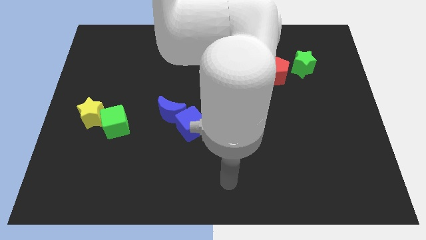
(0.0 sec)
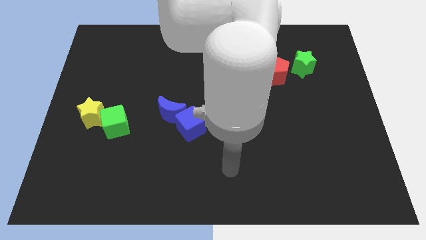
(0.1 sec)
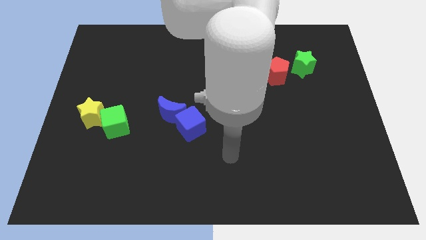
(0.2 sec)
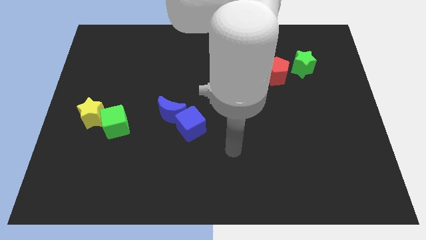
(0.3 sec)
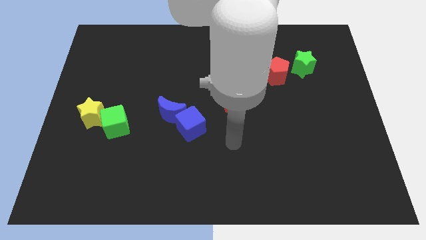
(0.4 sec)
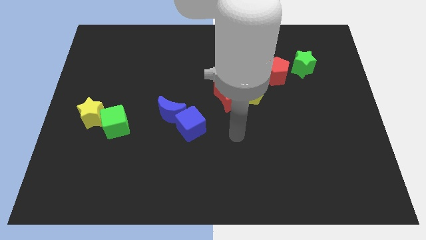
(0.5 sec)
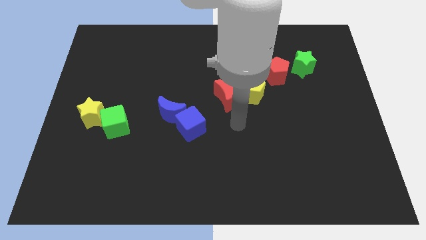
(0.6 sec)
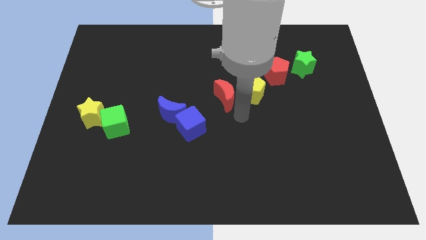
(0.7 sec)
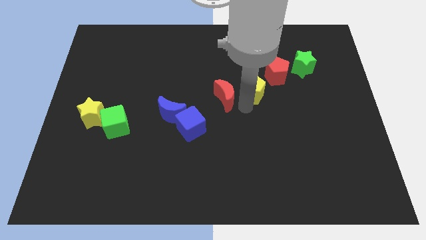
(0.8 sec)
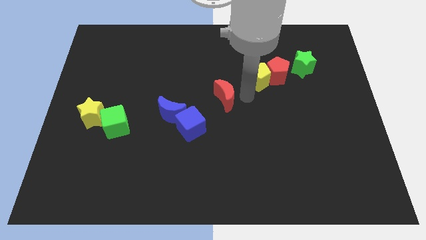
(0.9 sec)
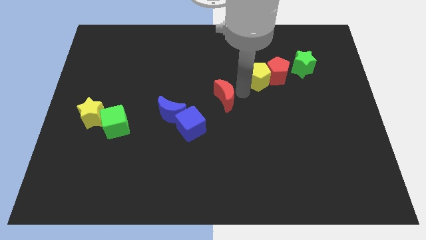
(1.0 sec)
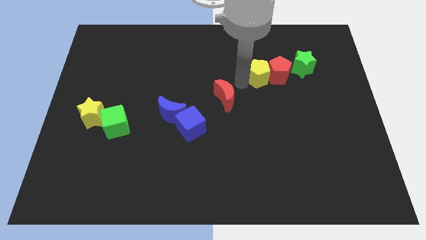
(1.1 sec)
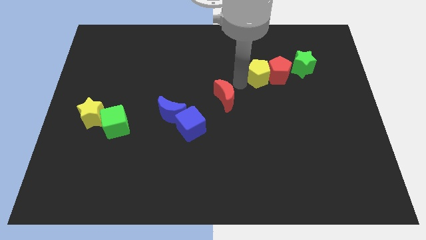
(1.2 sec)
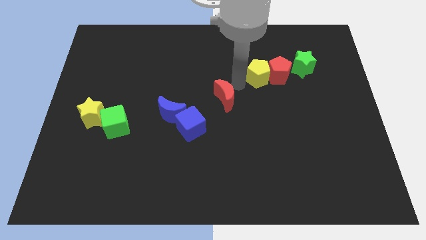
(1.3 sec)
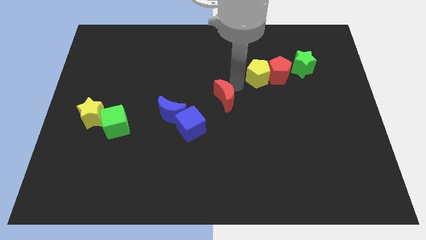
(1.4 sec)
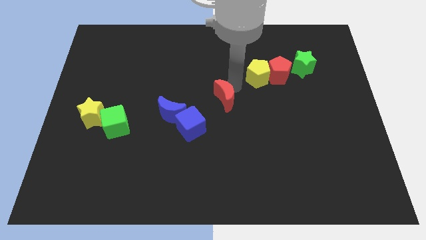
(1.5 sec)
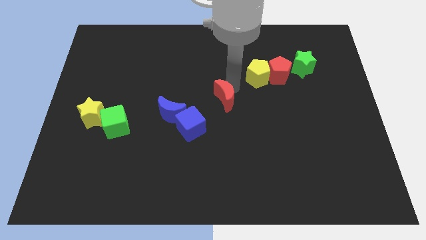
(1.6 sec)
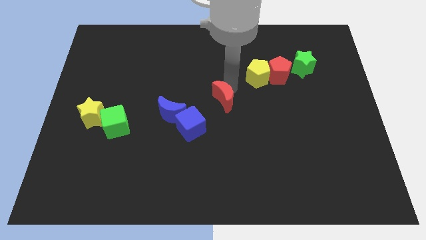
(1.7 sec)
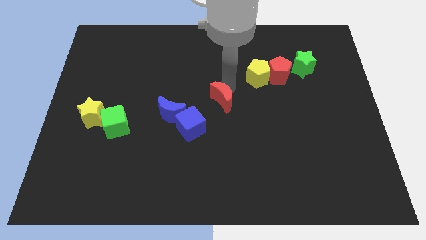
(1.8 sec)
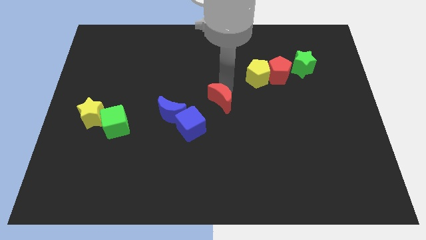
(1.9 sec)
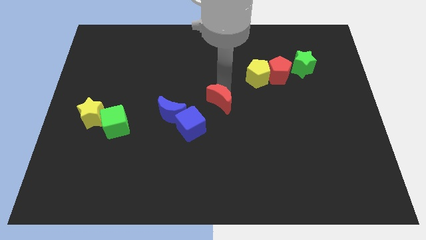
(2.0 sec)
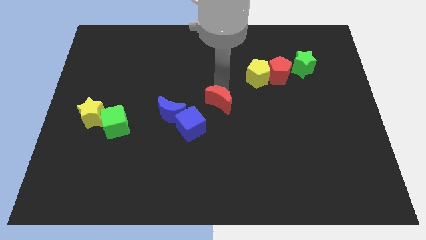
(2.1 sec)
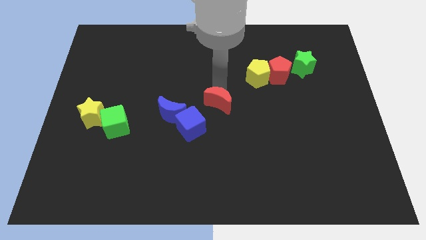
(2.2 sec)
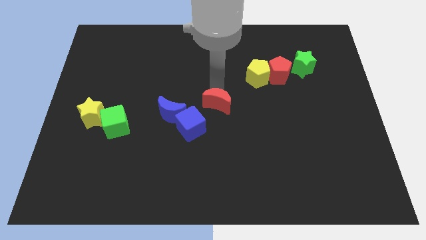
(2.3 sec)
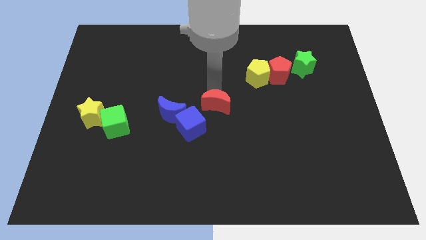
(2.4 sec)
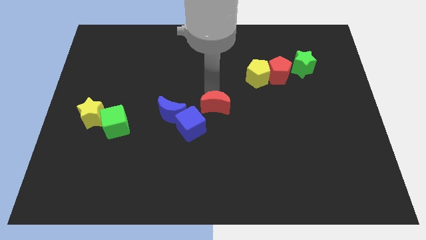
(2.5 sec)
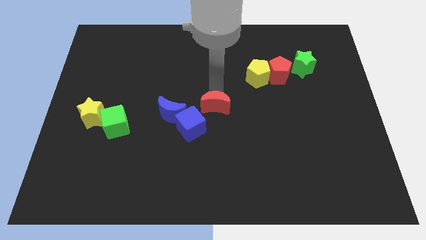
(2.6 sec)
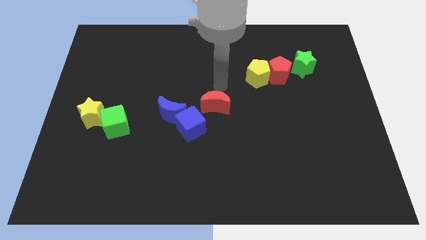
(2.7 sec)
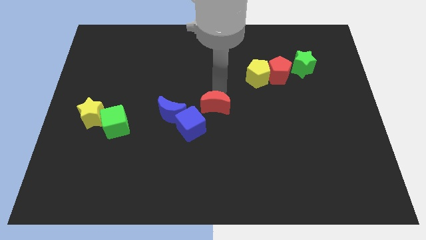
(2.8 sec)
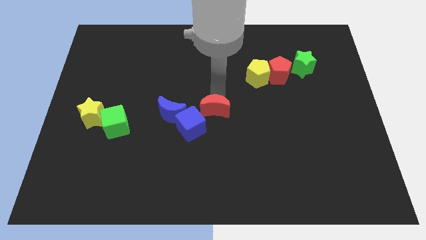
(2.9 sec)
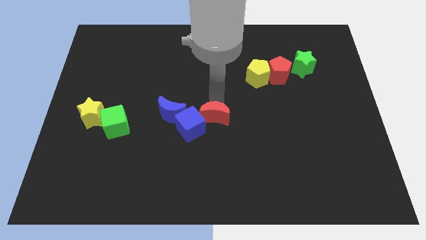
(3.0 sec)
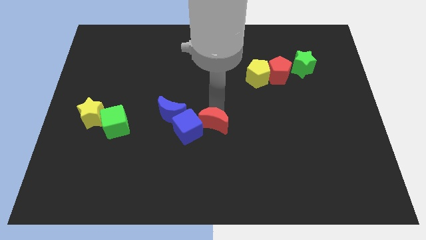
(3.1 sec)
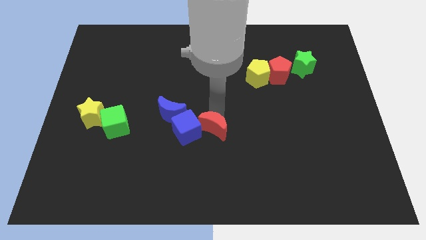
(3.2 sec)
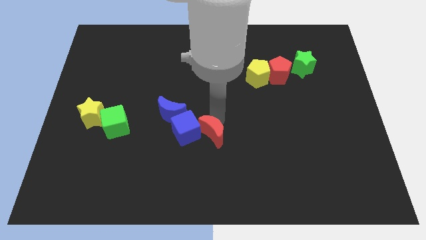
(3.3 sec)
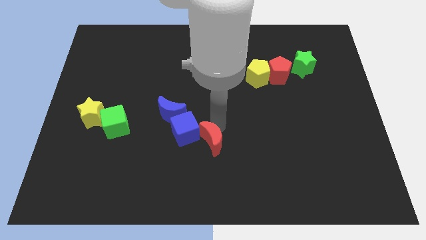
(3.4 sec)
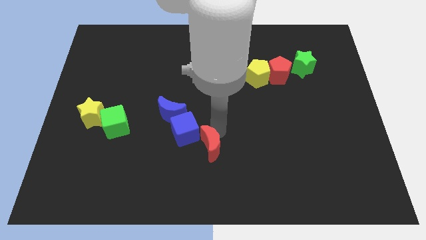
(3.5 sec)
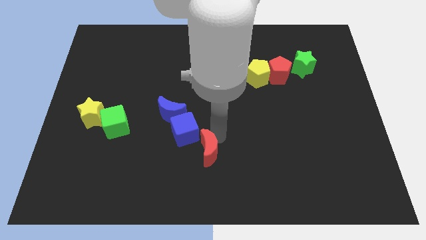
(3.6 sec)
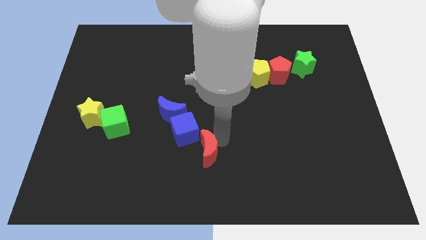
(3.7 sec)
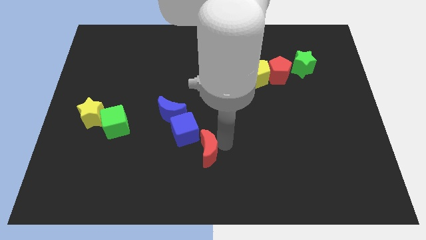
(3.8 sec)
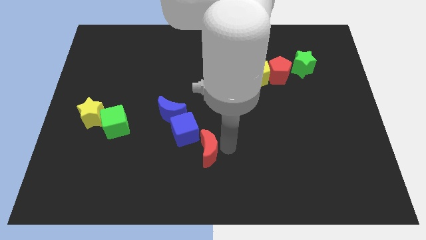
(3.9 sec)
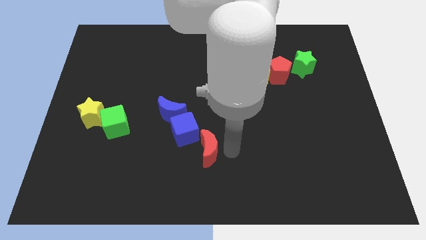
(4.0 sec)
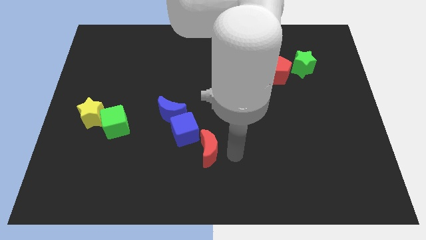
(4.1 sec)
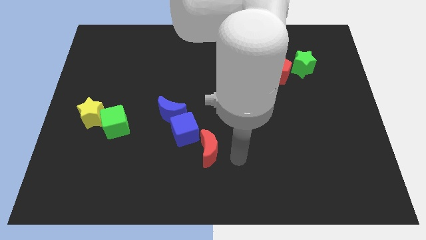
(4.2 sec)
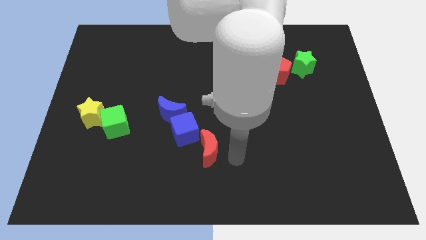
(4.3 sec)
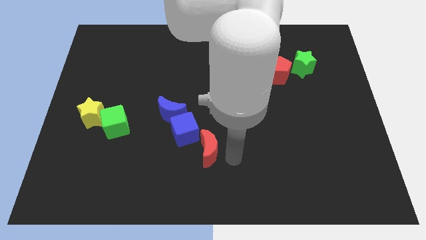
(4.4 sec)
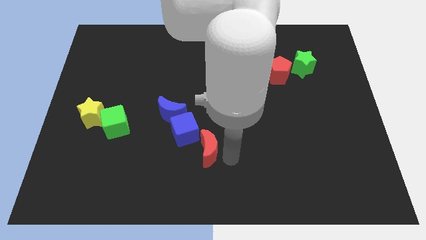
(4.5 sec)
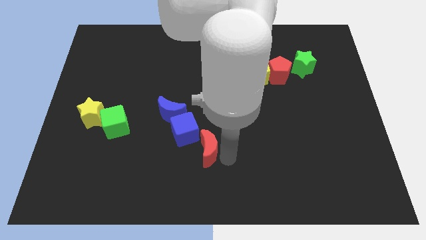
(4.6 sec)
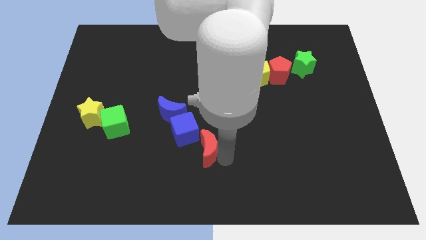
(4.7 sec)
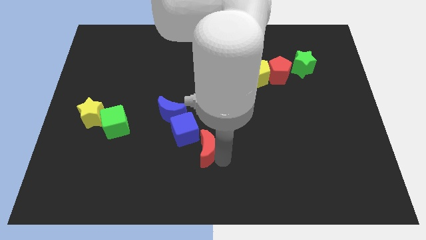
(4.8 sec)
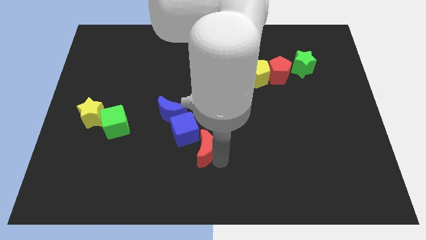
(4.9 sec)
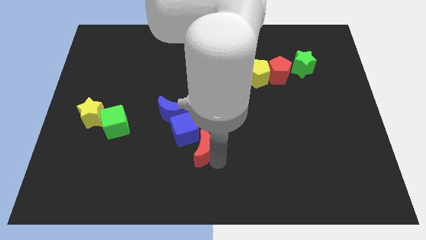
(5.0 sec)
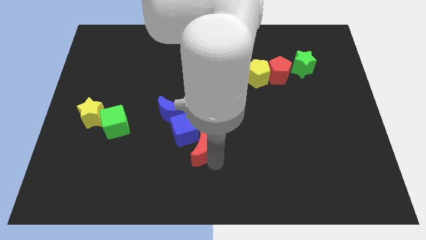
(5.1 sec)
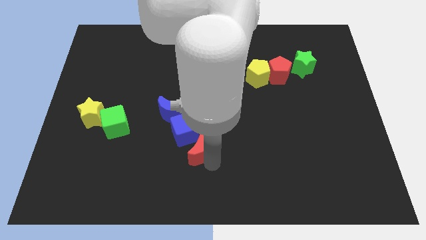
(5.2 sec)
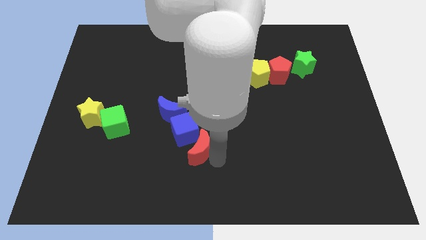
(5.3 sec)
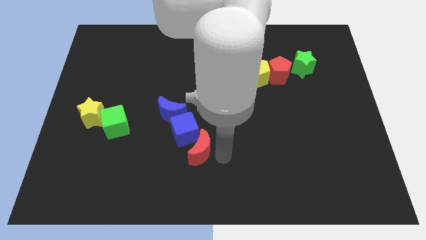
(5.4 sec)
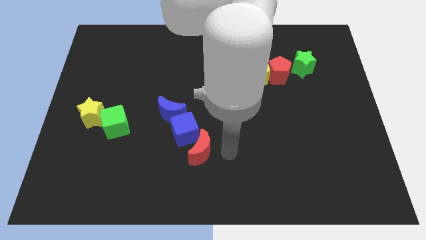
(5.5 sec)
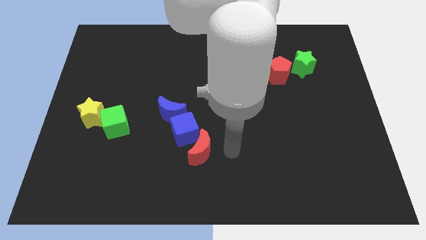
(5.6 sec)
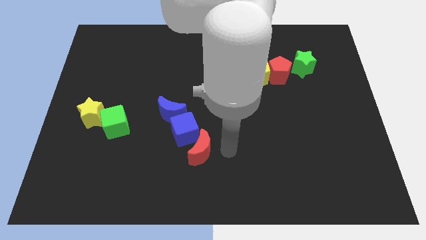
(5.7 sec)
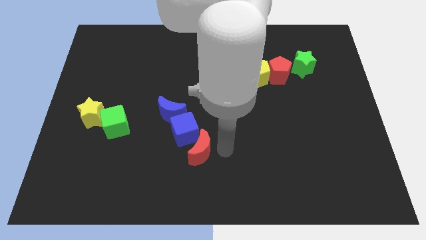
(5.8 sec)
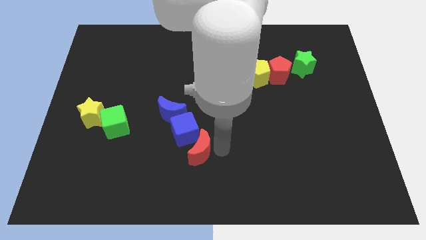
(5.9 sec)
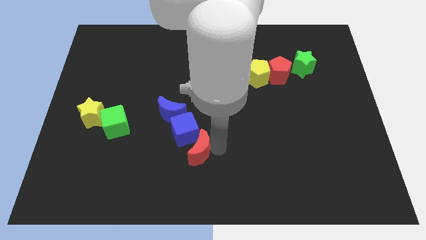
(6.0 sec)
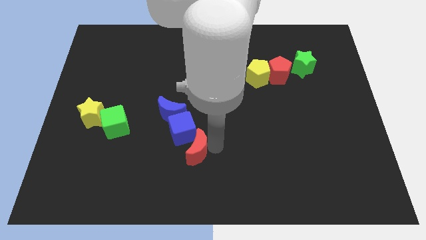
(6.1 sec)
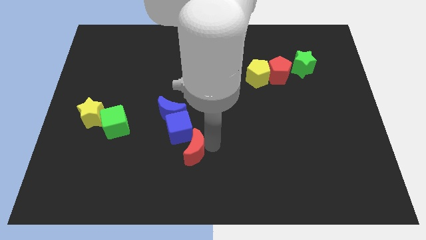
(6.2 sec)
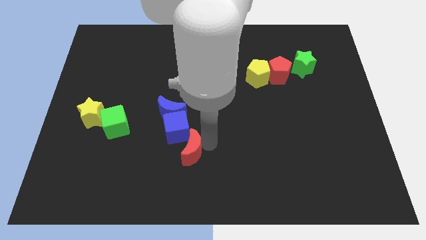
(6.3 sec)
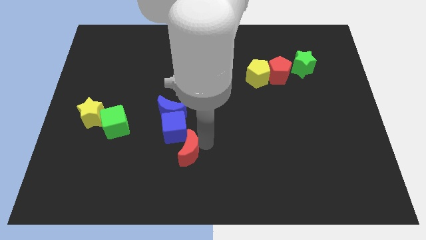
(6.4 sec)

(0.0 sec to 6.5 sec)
push the red moon below the blue moon

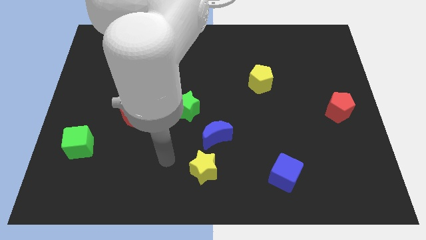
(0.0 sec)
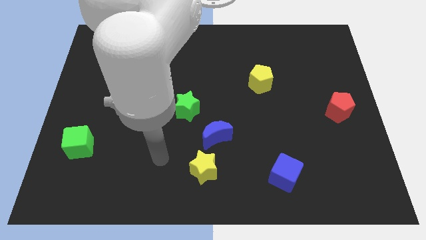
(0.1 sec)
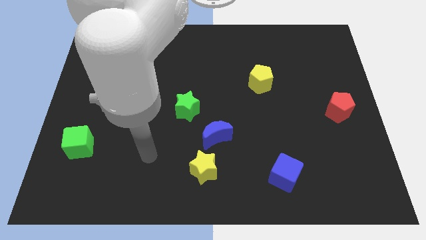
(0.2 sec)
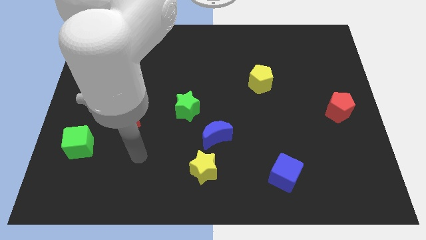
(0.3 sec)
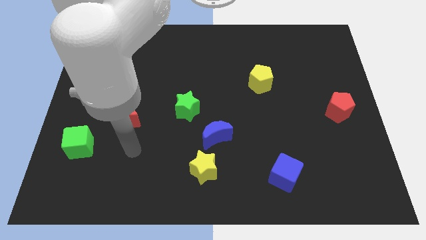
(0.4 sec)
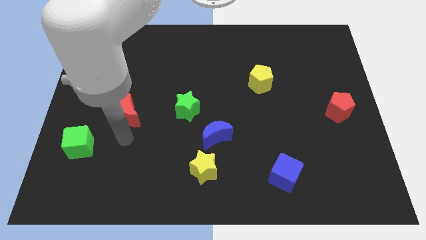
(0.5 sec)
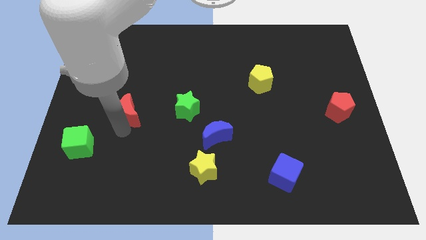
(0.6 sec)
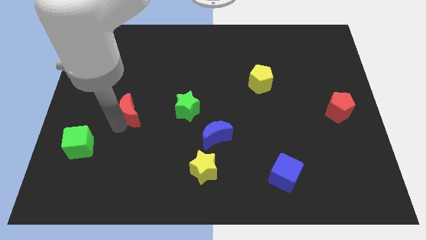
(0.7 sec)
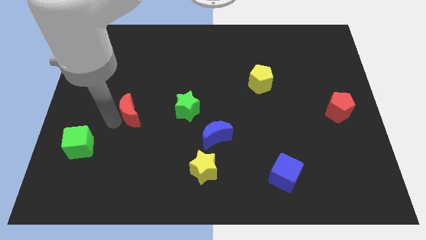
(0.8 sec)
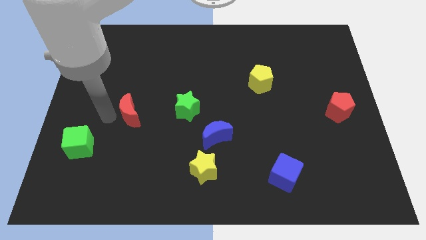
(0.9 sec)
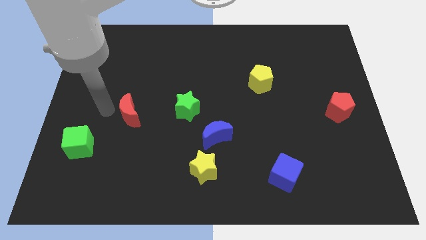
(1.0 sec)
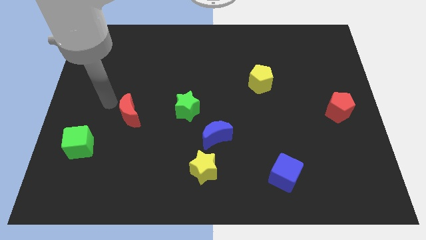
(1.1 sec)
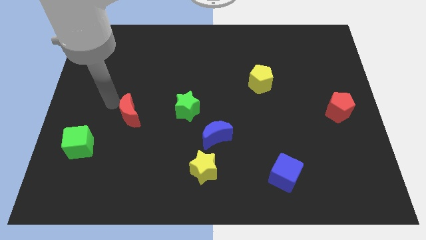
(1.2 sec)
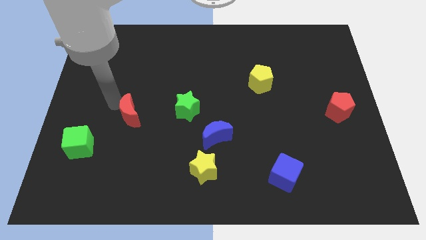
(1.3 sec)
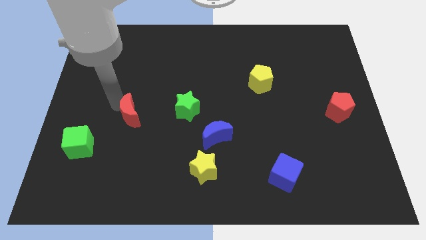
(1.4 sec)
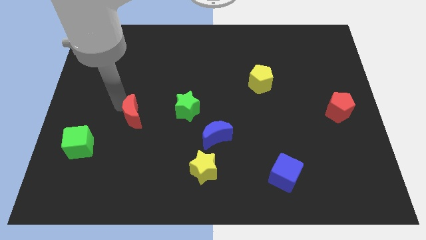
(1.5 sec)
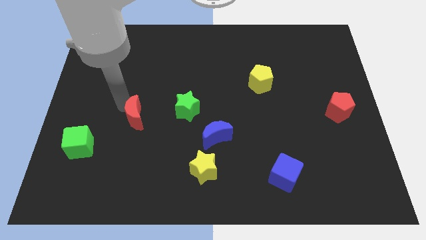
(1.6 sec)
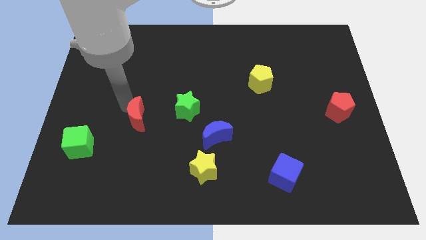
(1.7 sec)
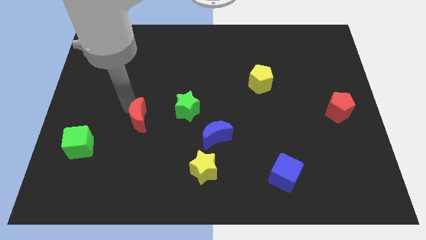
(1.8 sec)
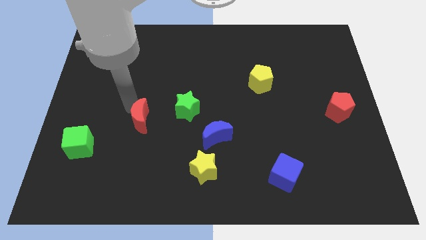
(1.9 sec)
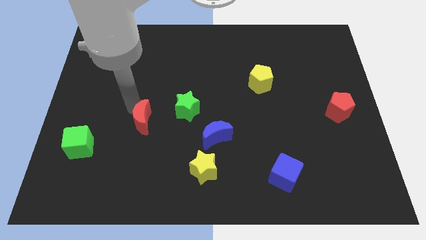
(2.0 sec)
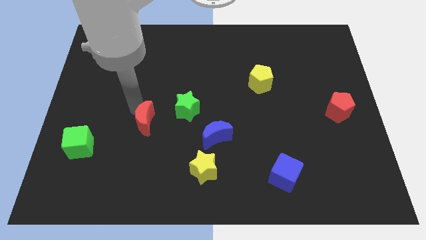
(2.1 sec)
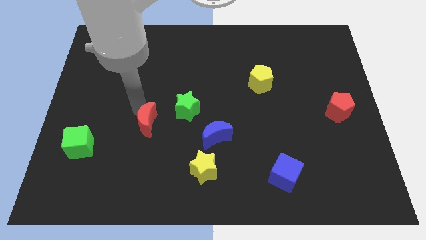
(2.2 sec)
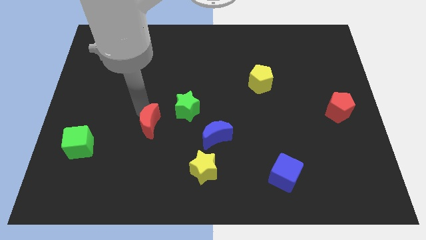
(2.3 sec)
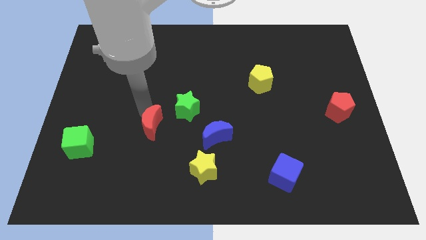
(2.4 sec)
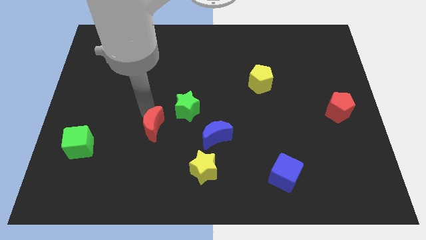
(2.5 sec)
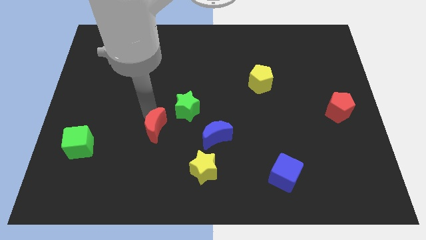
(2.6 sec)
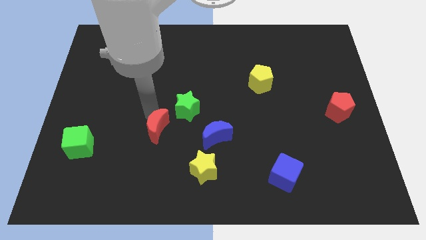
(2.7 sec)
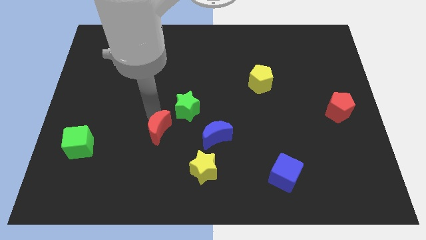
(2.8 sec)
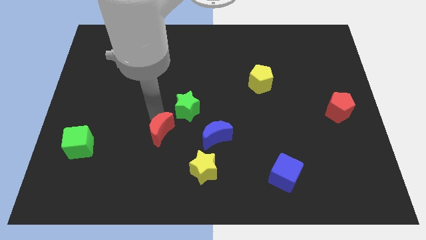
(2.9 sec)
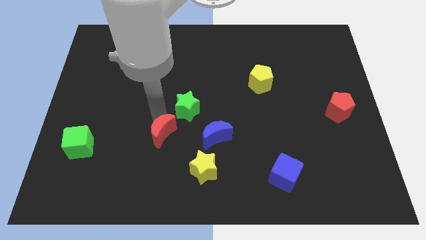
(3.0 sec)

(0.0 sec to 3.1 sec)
push the red moon below the green star
